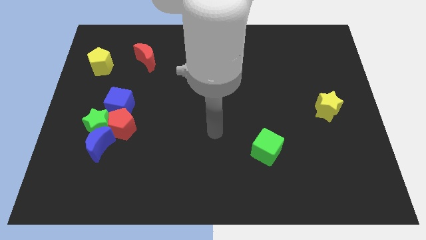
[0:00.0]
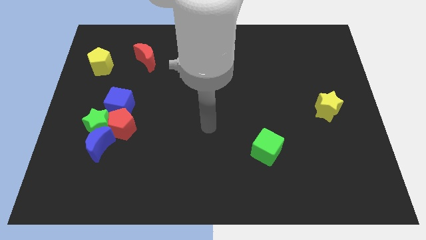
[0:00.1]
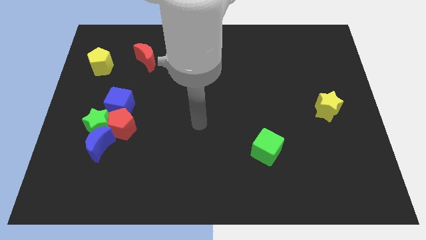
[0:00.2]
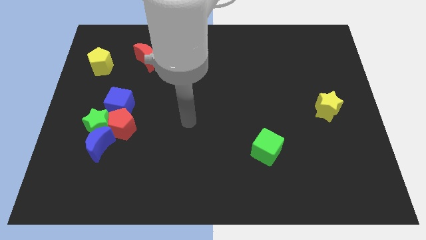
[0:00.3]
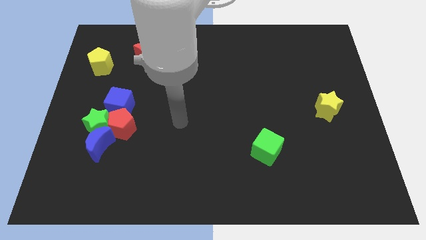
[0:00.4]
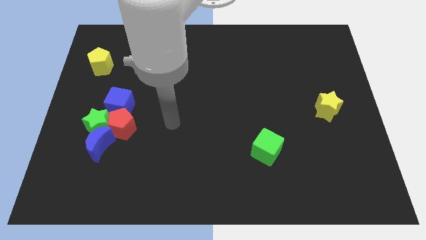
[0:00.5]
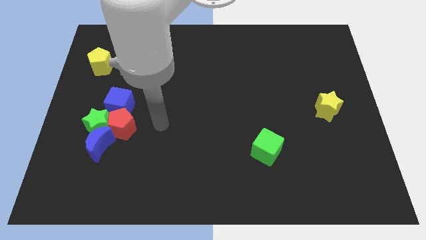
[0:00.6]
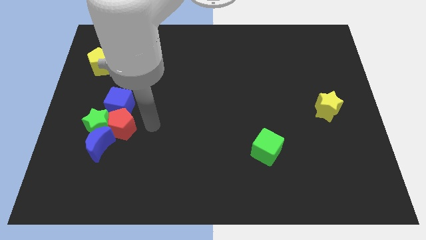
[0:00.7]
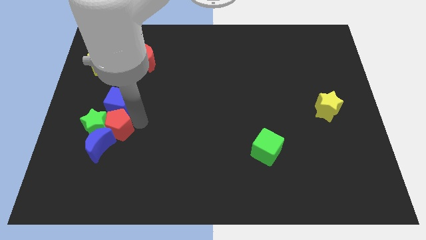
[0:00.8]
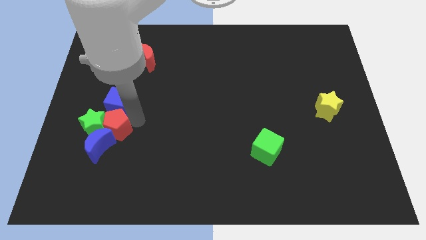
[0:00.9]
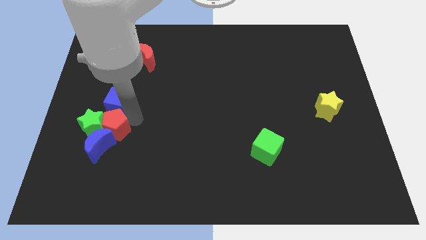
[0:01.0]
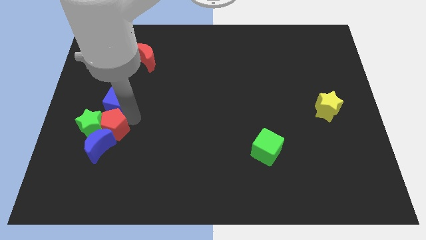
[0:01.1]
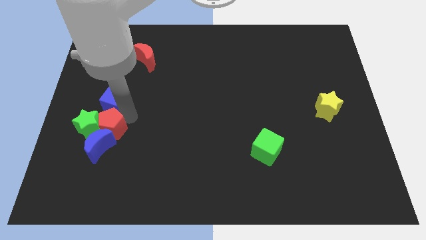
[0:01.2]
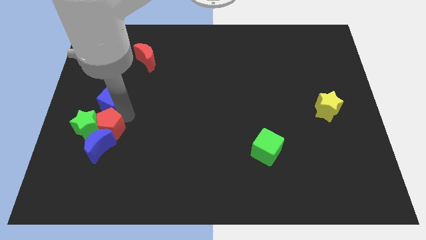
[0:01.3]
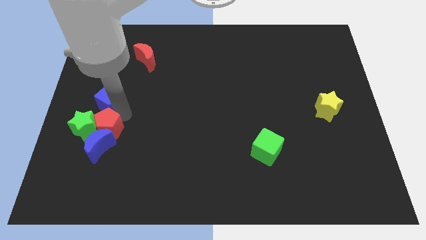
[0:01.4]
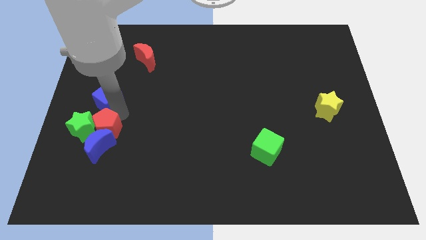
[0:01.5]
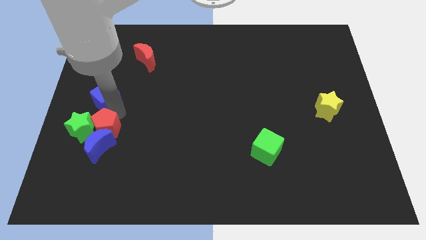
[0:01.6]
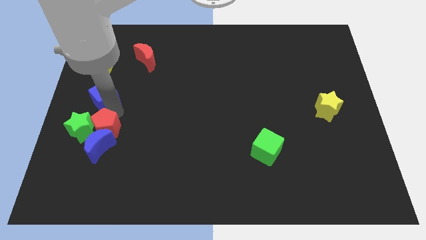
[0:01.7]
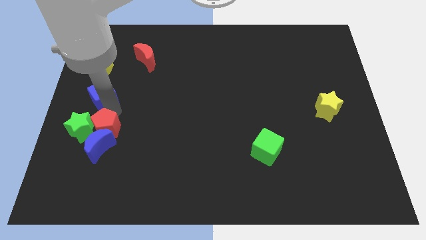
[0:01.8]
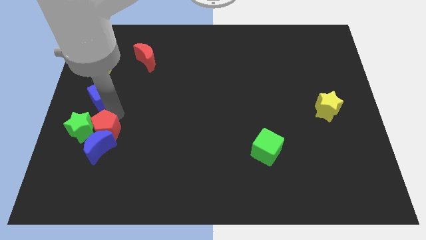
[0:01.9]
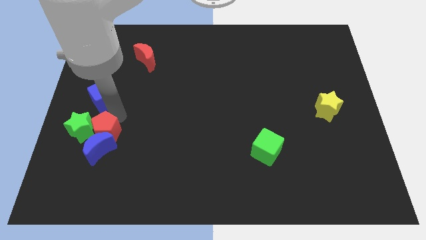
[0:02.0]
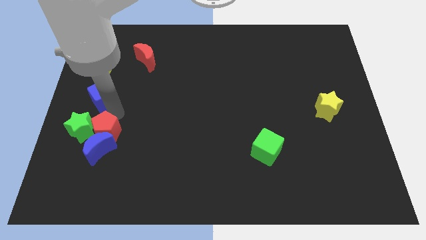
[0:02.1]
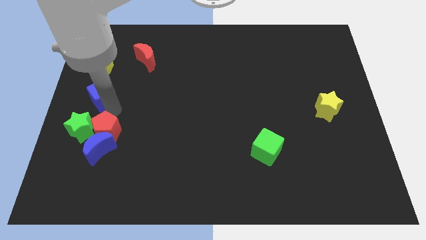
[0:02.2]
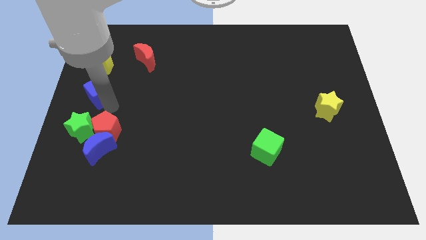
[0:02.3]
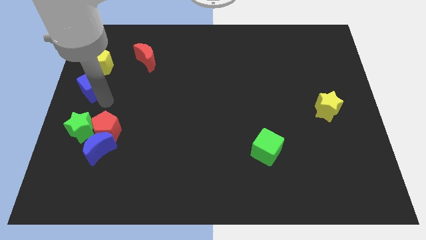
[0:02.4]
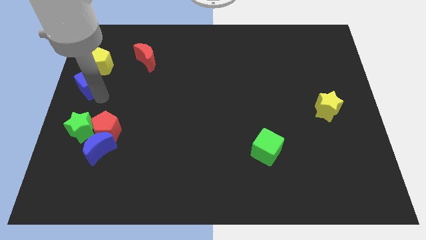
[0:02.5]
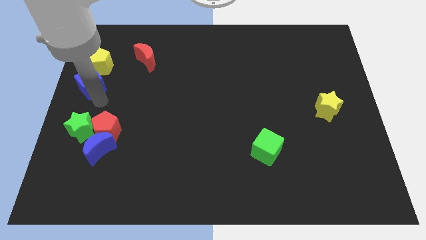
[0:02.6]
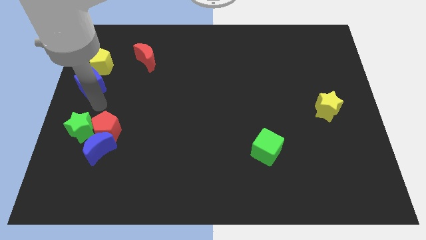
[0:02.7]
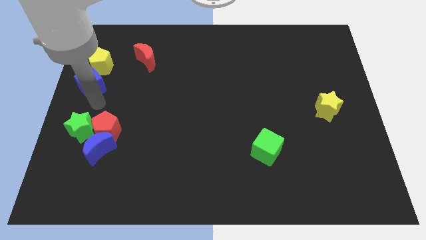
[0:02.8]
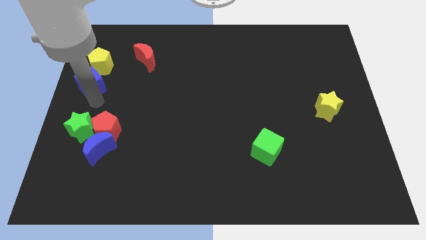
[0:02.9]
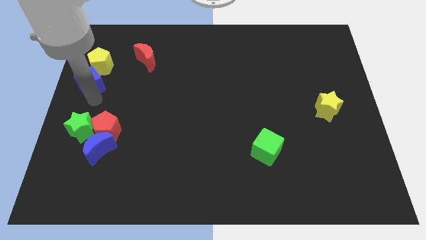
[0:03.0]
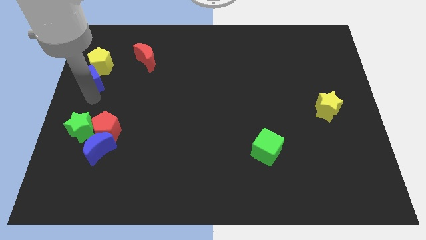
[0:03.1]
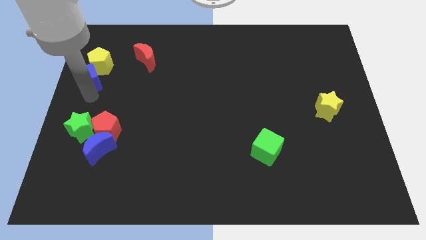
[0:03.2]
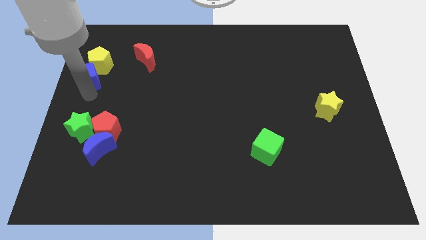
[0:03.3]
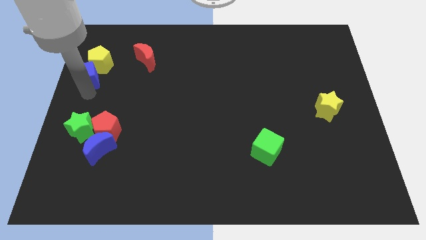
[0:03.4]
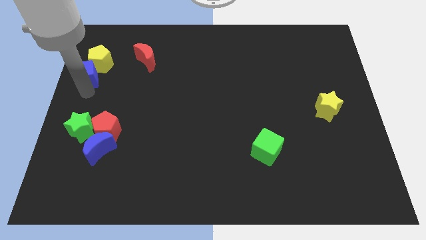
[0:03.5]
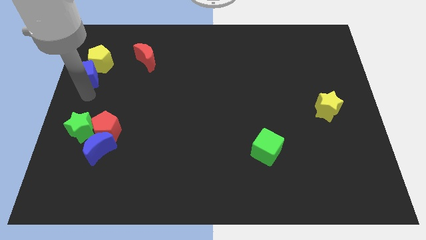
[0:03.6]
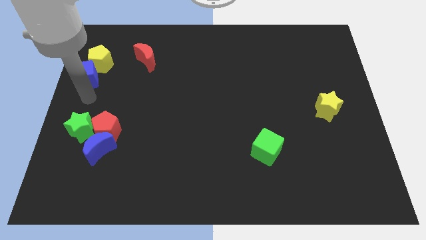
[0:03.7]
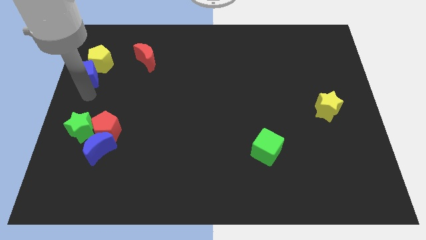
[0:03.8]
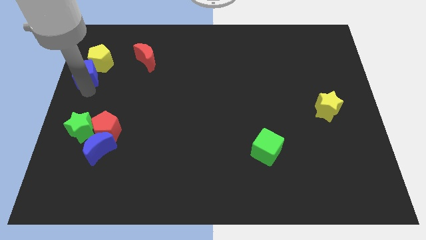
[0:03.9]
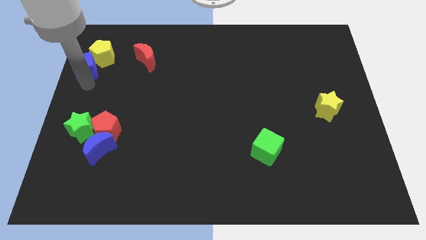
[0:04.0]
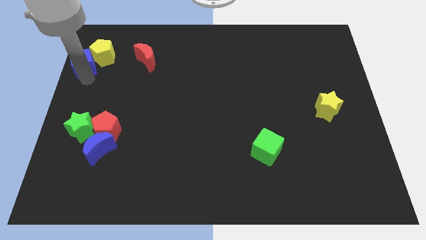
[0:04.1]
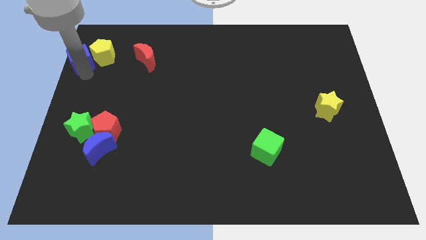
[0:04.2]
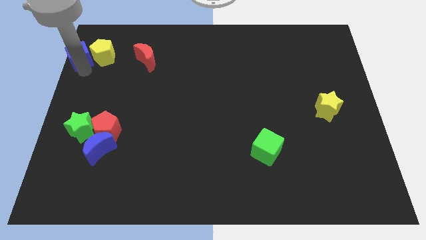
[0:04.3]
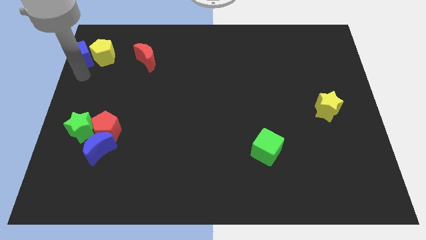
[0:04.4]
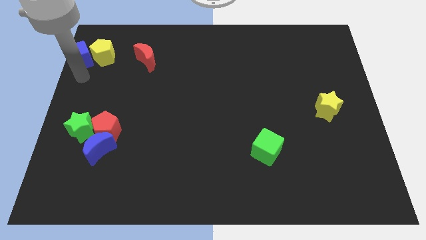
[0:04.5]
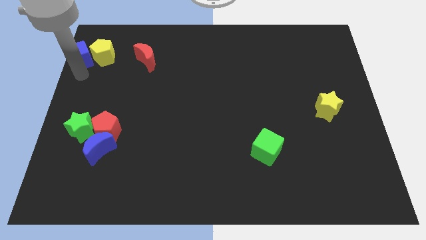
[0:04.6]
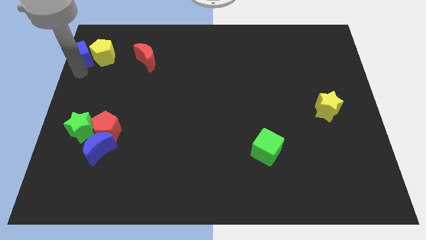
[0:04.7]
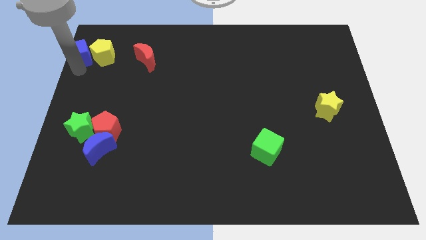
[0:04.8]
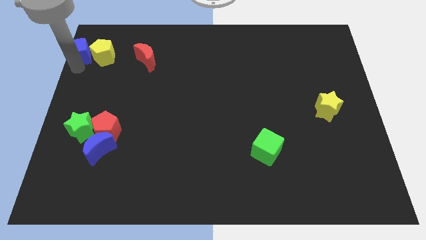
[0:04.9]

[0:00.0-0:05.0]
put the blue cube to the top left

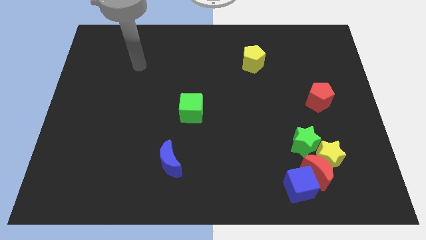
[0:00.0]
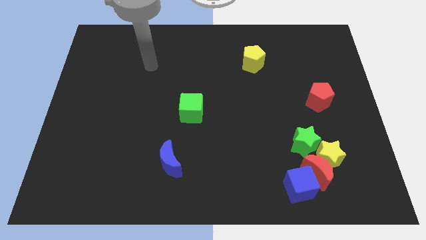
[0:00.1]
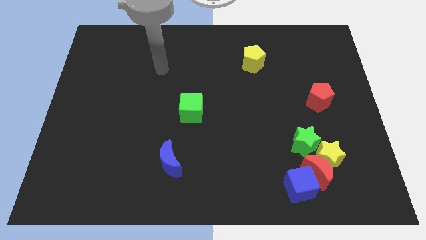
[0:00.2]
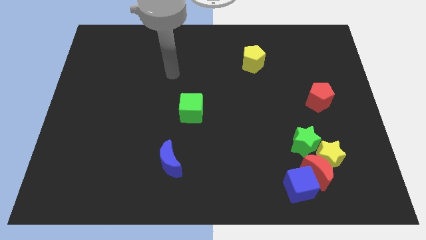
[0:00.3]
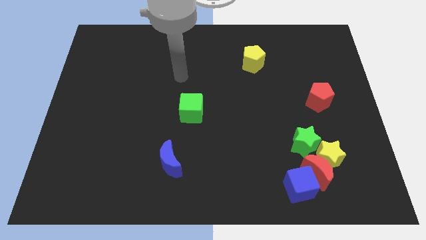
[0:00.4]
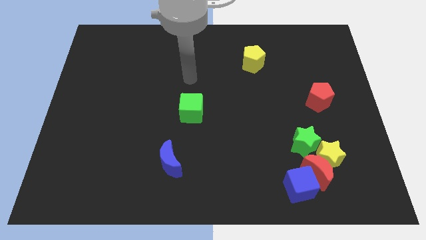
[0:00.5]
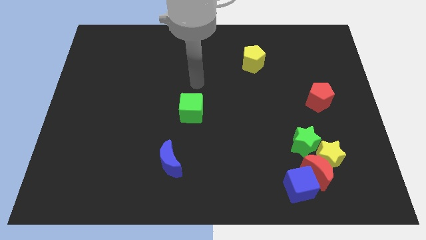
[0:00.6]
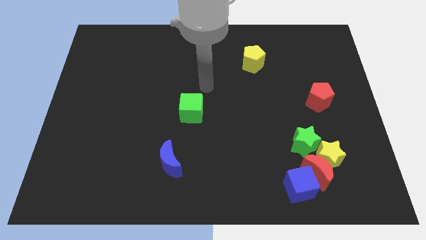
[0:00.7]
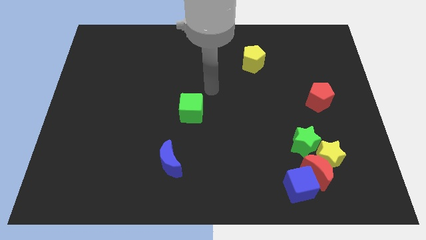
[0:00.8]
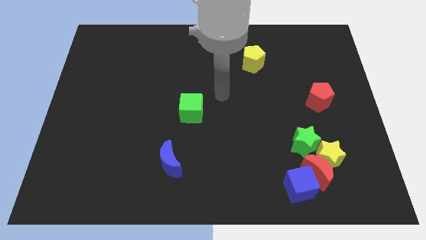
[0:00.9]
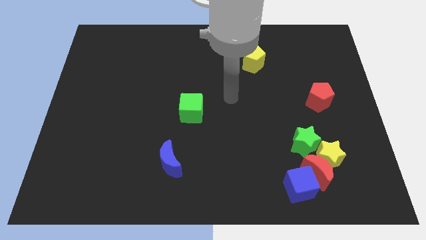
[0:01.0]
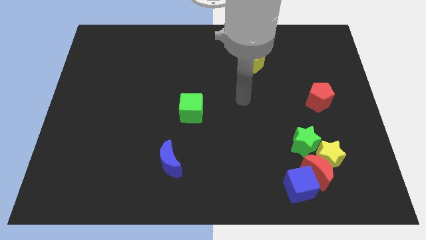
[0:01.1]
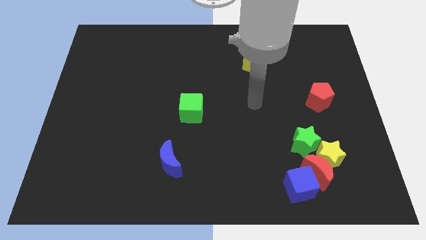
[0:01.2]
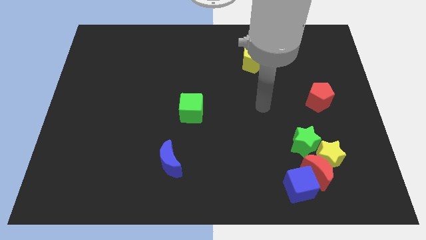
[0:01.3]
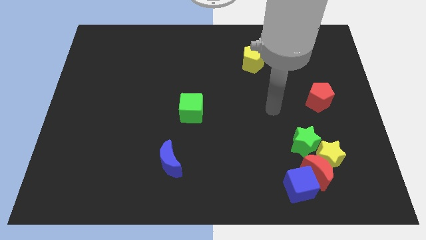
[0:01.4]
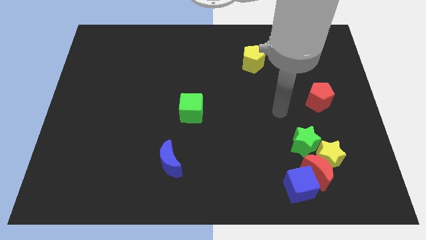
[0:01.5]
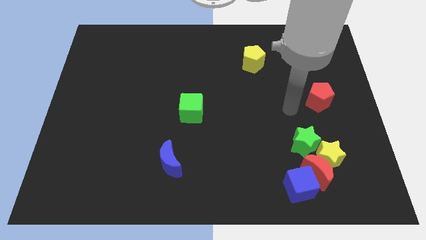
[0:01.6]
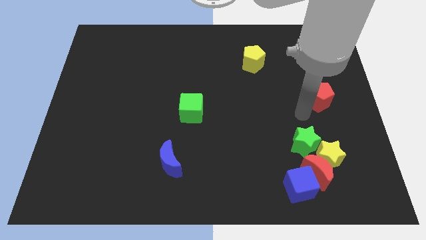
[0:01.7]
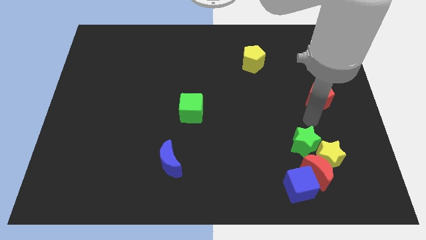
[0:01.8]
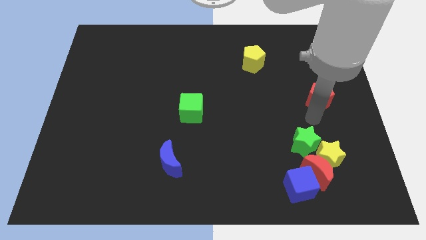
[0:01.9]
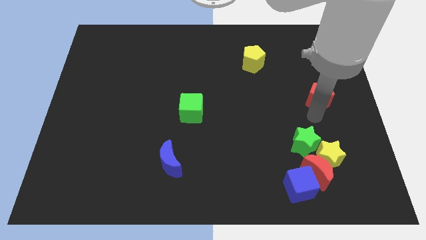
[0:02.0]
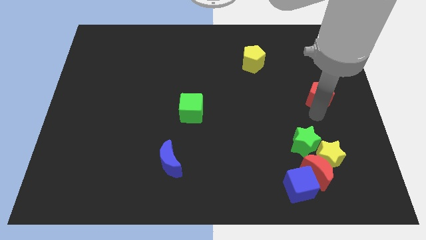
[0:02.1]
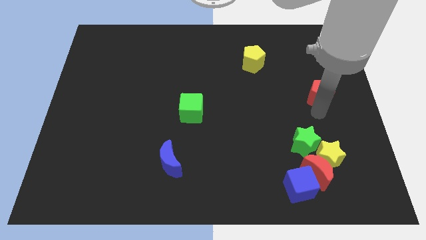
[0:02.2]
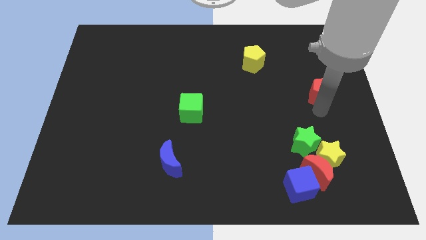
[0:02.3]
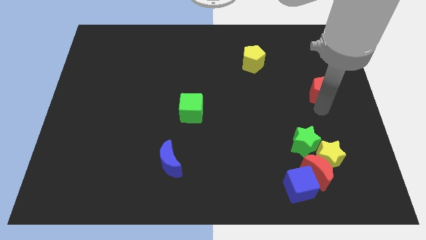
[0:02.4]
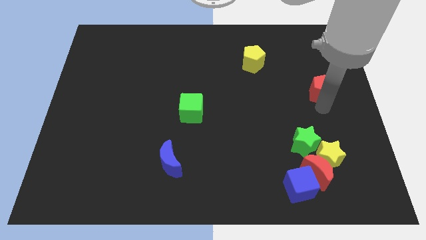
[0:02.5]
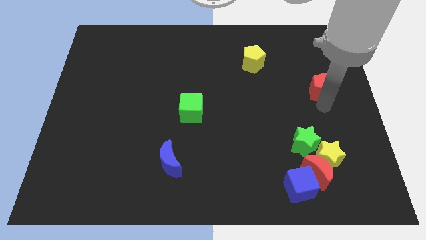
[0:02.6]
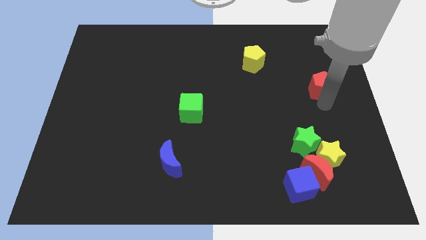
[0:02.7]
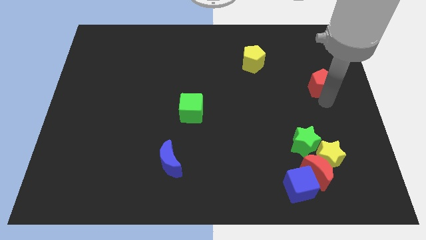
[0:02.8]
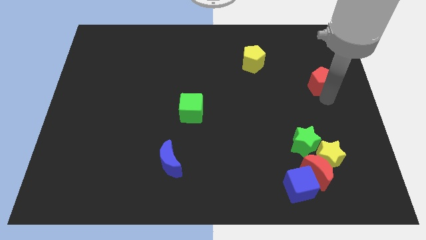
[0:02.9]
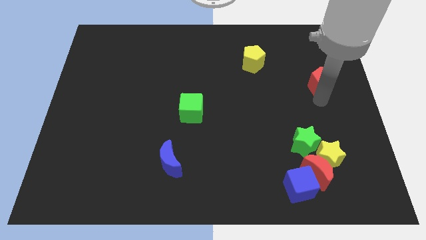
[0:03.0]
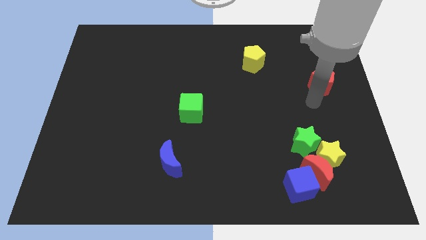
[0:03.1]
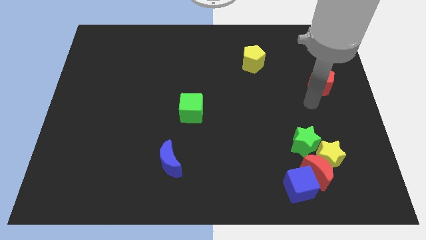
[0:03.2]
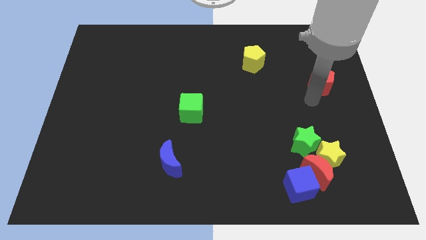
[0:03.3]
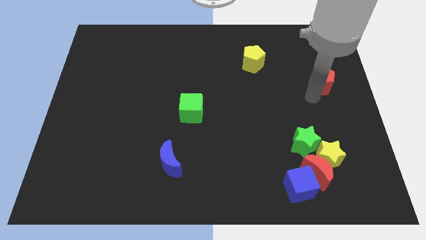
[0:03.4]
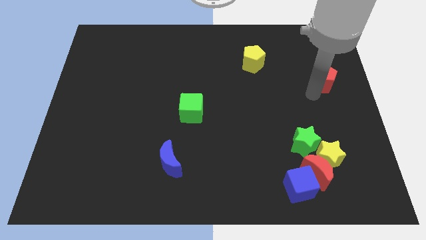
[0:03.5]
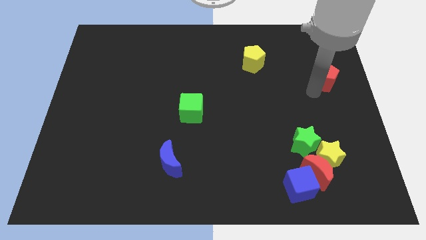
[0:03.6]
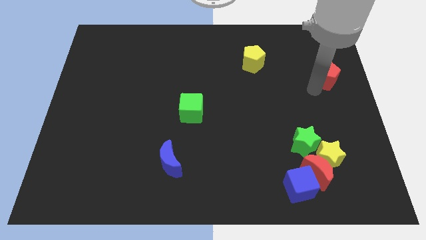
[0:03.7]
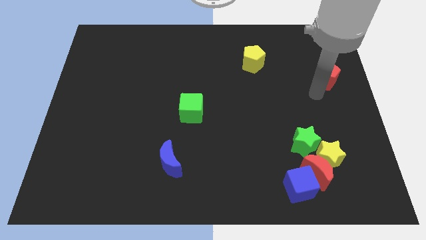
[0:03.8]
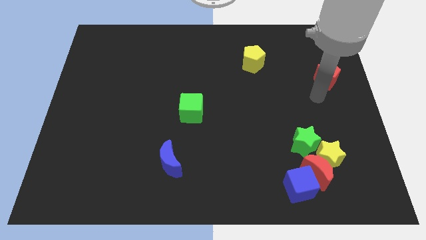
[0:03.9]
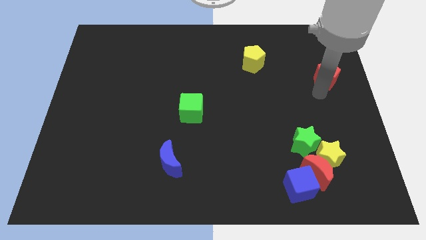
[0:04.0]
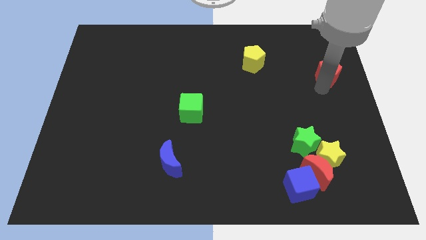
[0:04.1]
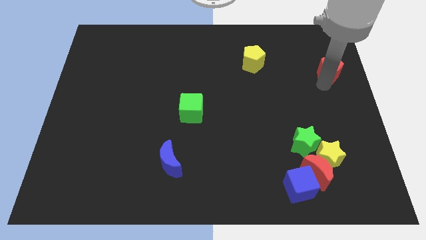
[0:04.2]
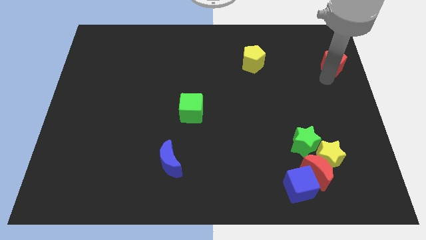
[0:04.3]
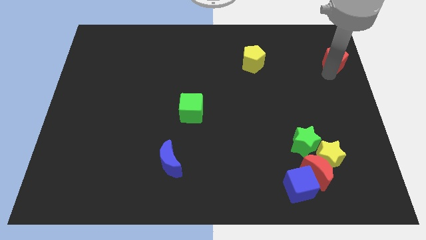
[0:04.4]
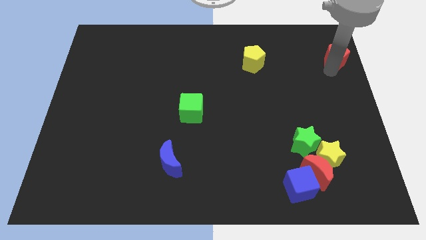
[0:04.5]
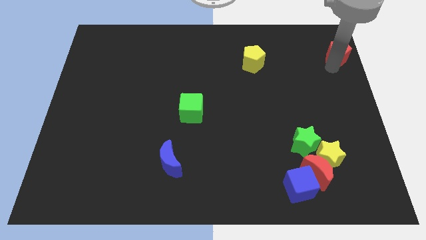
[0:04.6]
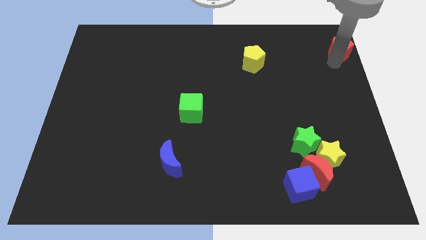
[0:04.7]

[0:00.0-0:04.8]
move the red pentagon to the top right corner
